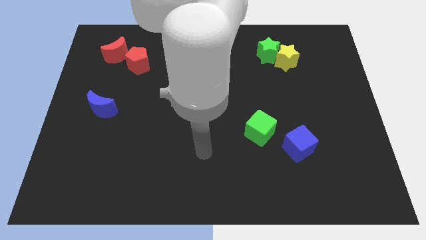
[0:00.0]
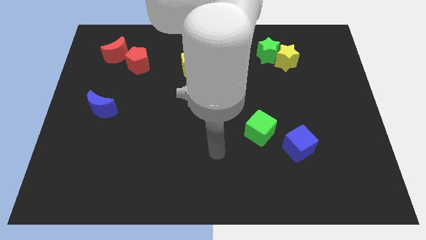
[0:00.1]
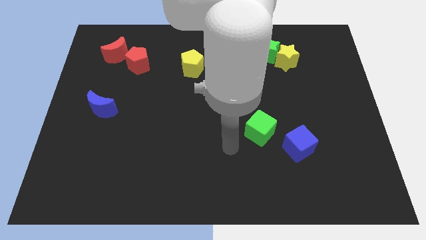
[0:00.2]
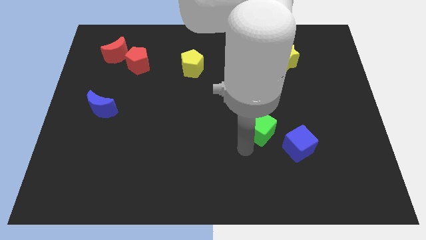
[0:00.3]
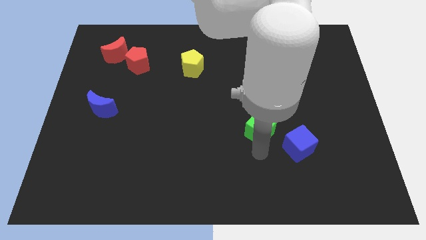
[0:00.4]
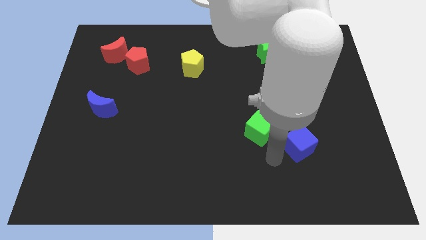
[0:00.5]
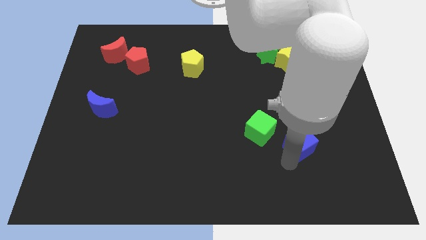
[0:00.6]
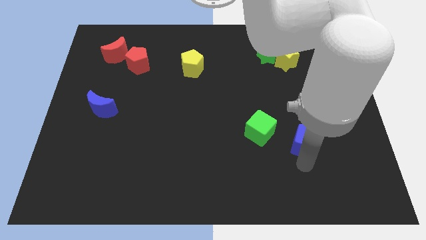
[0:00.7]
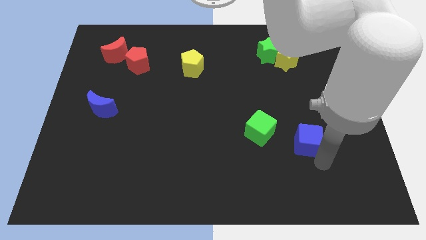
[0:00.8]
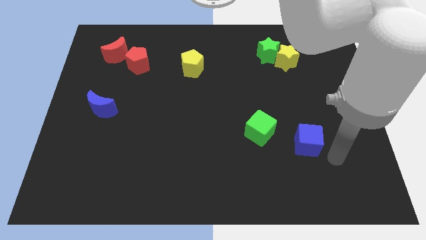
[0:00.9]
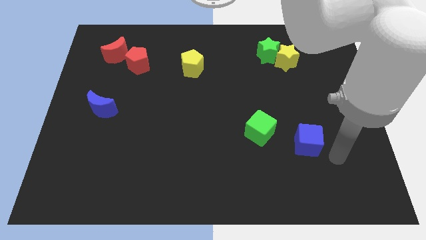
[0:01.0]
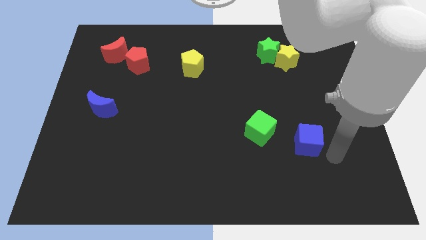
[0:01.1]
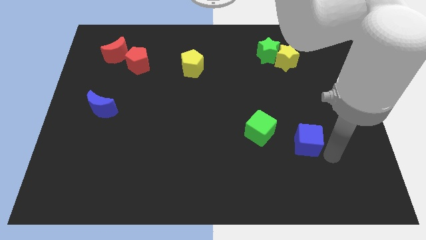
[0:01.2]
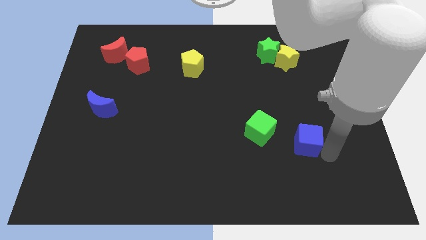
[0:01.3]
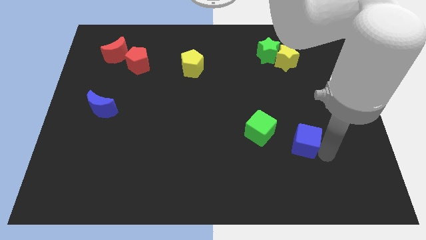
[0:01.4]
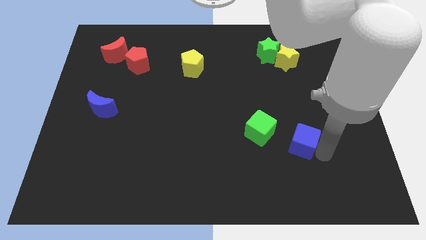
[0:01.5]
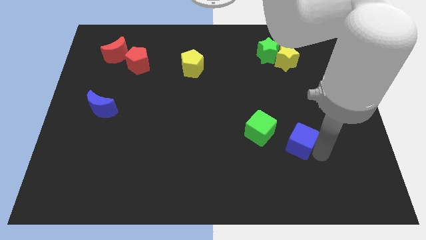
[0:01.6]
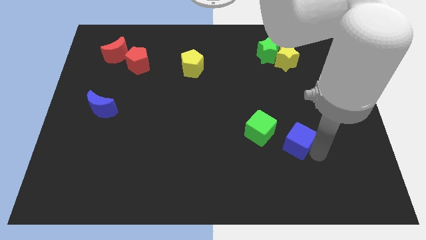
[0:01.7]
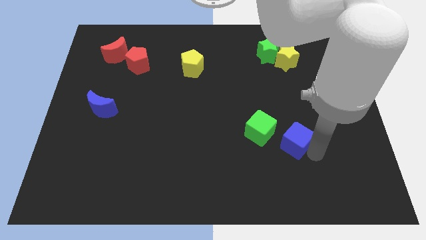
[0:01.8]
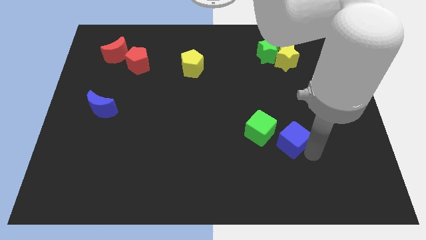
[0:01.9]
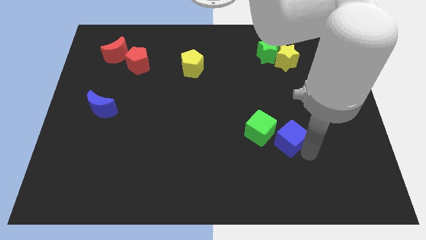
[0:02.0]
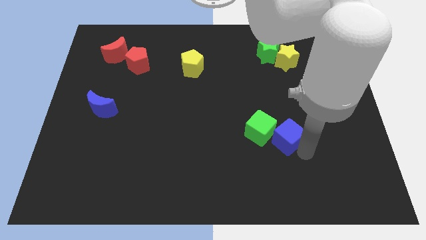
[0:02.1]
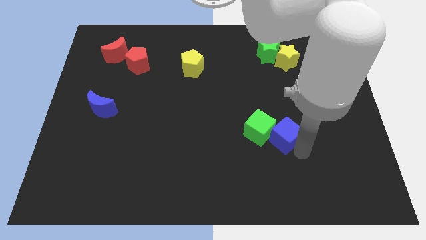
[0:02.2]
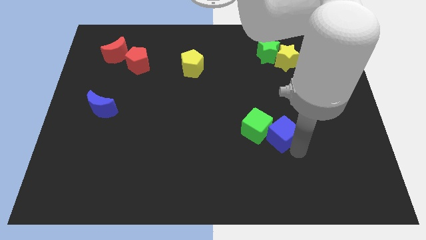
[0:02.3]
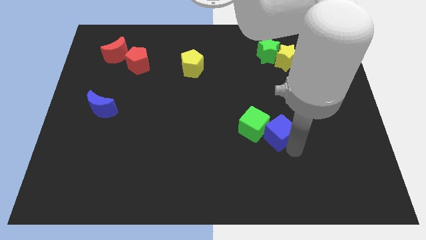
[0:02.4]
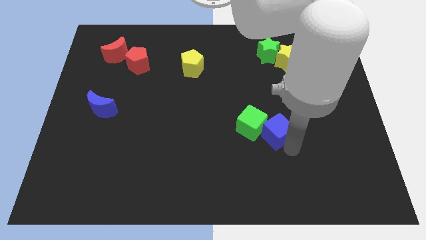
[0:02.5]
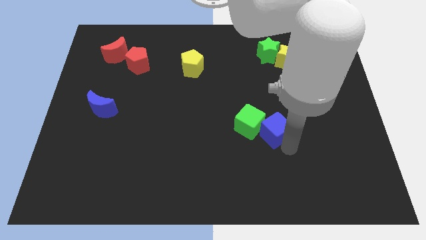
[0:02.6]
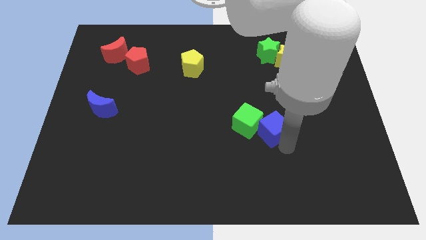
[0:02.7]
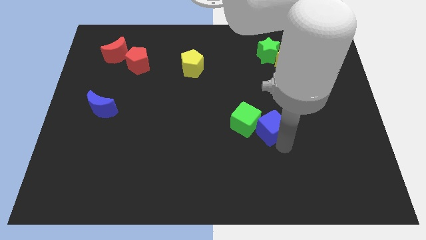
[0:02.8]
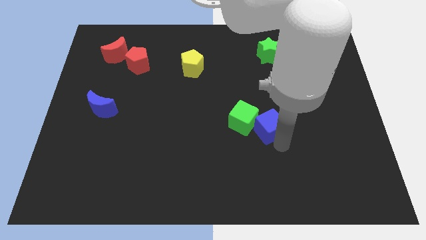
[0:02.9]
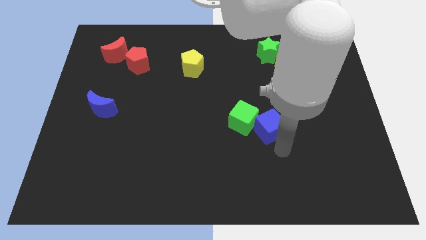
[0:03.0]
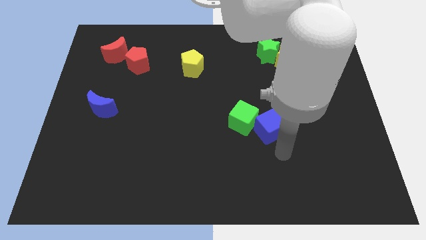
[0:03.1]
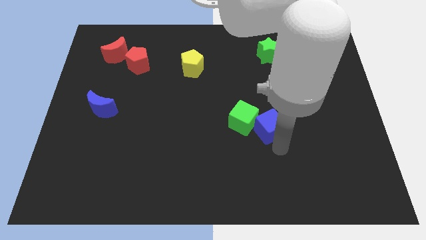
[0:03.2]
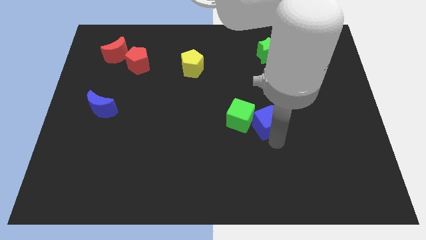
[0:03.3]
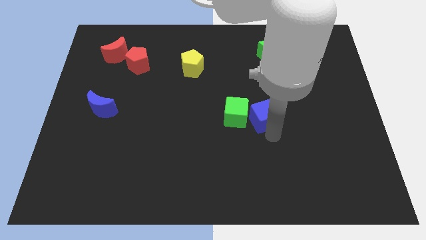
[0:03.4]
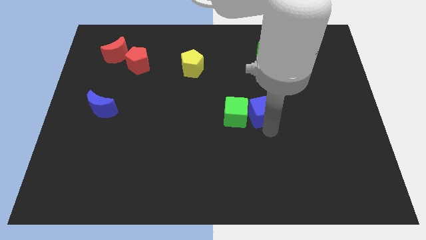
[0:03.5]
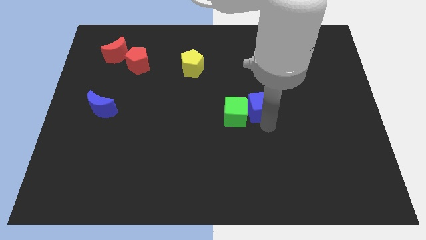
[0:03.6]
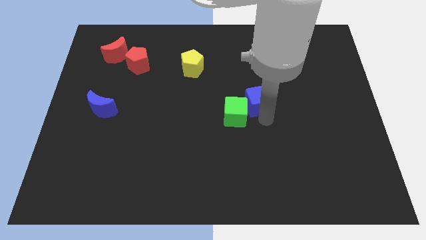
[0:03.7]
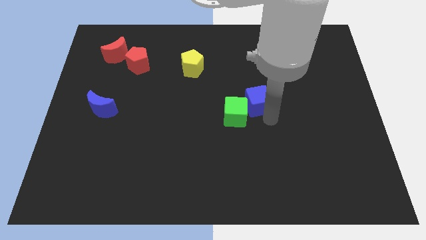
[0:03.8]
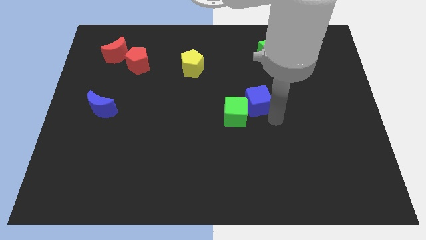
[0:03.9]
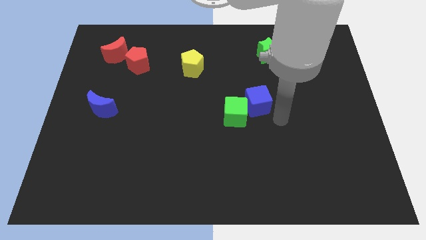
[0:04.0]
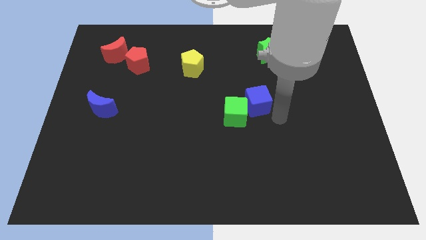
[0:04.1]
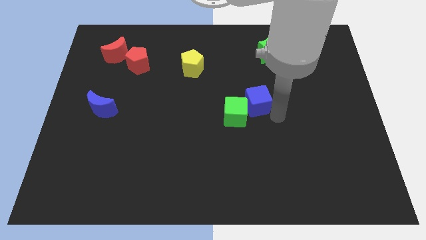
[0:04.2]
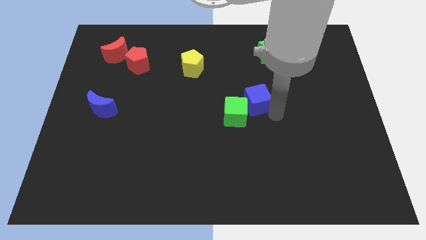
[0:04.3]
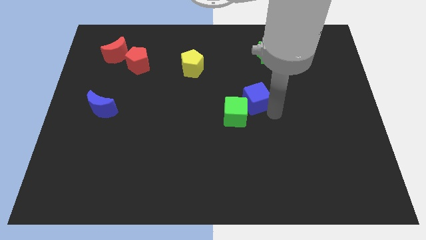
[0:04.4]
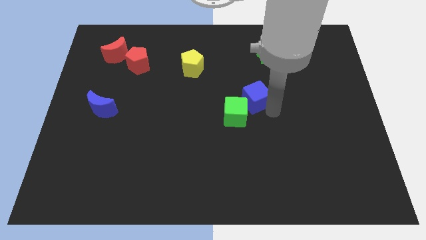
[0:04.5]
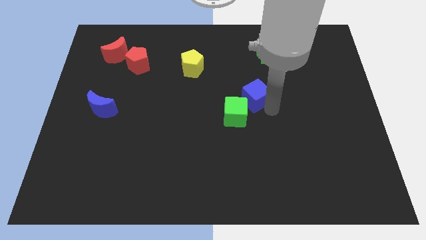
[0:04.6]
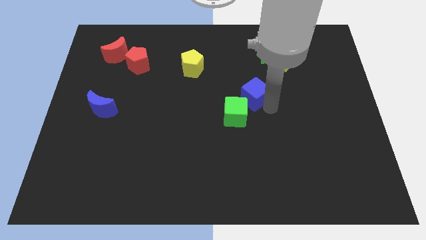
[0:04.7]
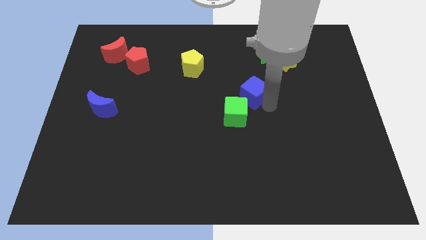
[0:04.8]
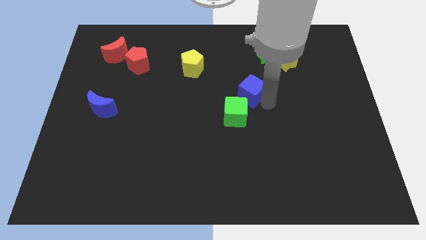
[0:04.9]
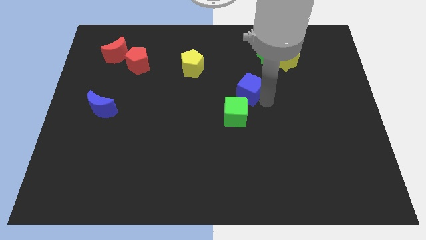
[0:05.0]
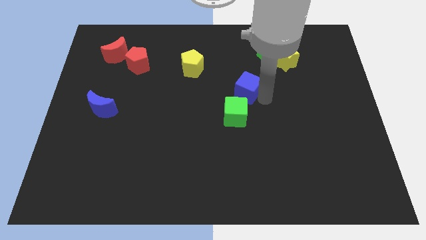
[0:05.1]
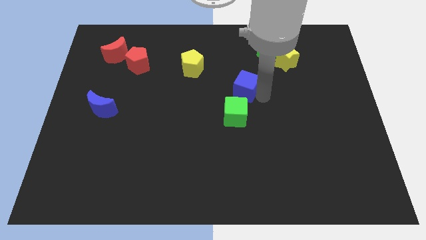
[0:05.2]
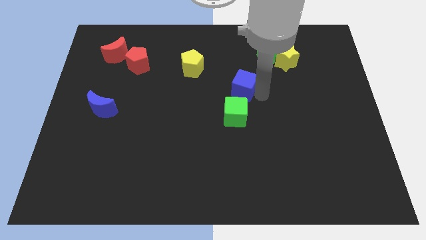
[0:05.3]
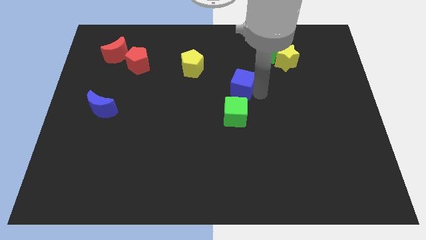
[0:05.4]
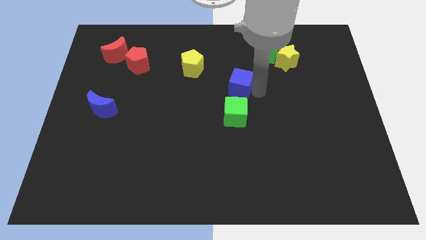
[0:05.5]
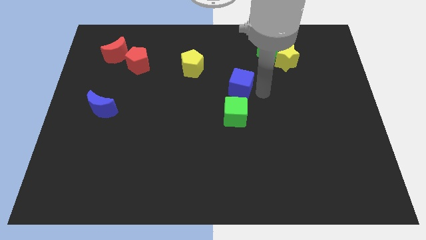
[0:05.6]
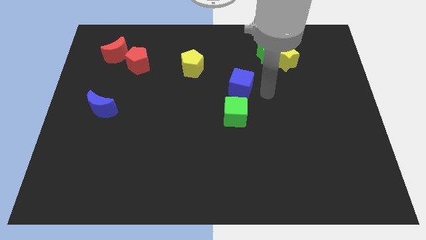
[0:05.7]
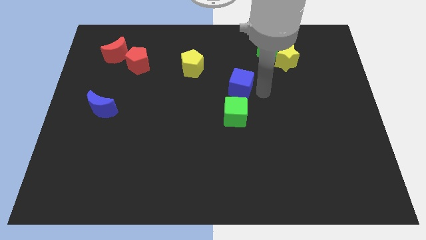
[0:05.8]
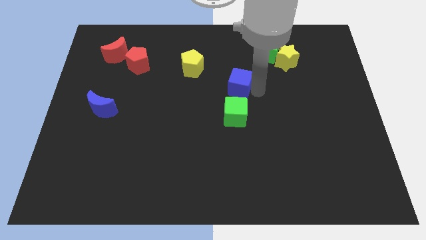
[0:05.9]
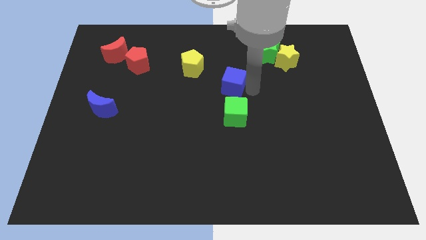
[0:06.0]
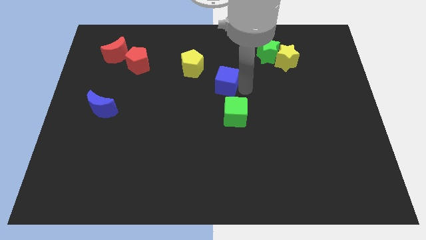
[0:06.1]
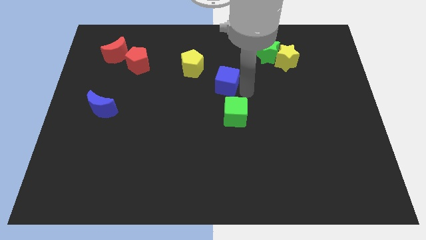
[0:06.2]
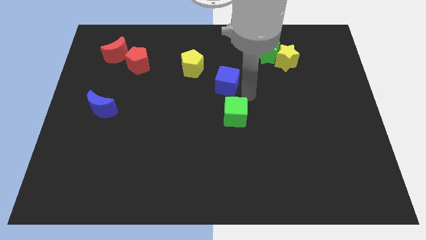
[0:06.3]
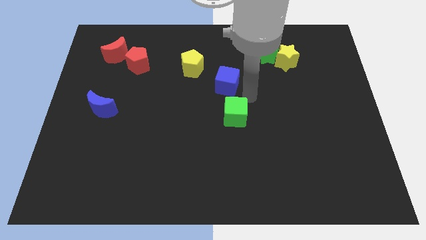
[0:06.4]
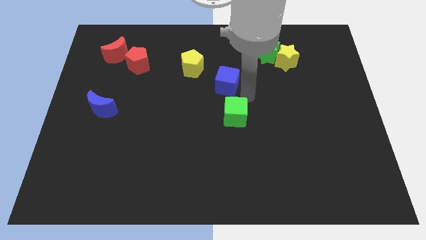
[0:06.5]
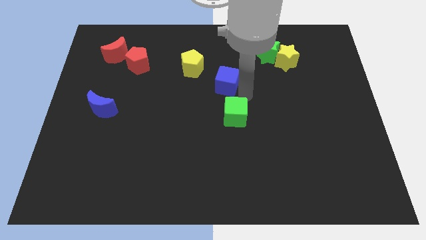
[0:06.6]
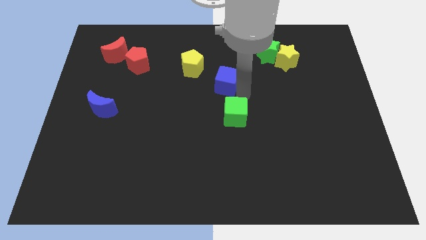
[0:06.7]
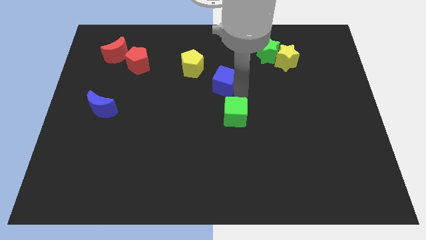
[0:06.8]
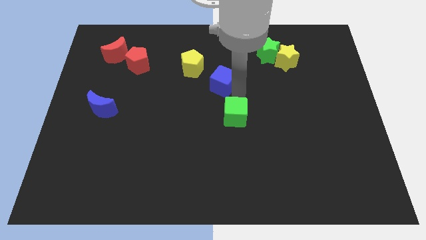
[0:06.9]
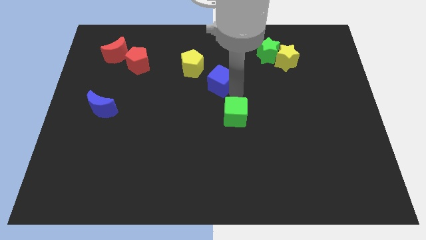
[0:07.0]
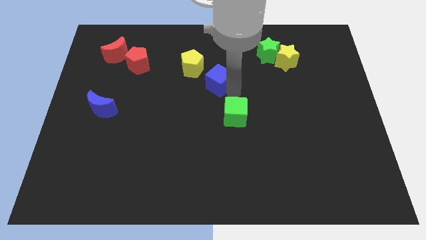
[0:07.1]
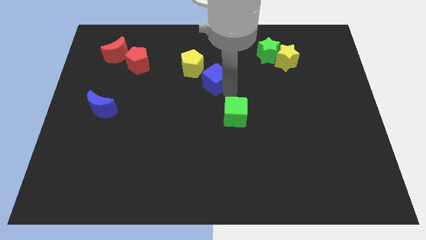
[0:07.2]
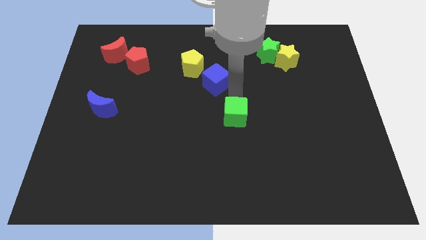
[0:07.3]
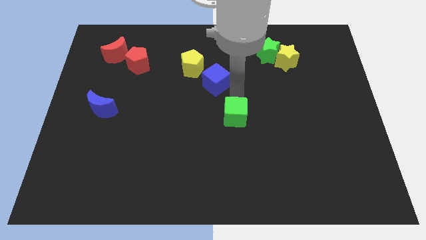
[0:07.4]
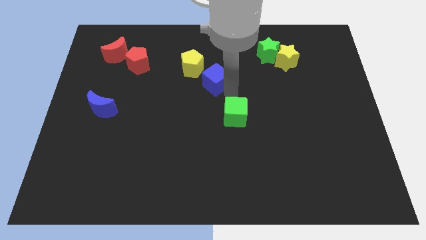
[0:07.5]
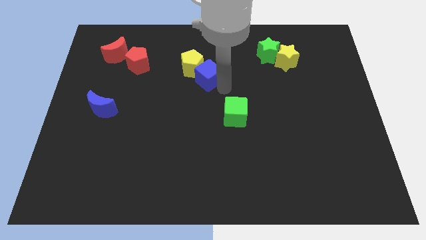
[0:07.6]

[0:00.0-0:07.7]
push the blue cube towards the yellow pentagon

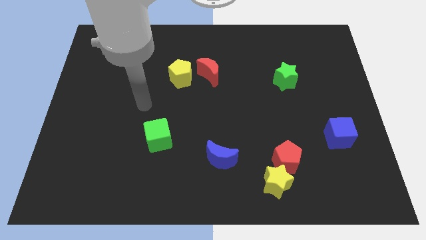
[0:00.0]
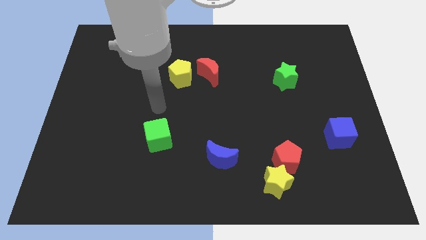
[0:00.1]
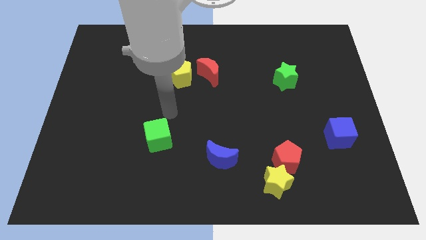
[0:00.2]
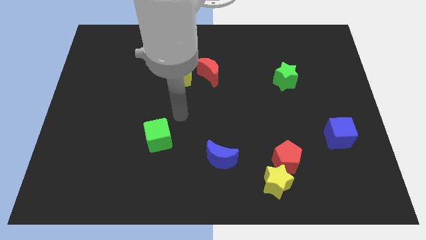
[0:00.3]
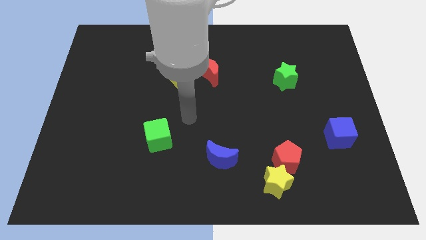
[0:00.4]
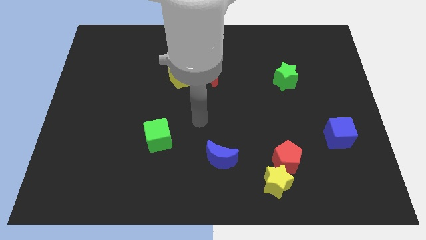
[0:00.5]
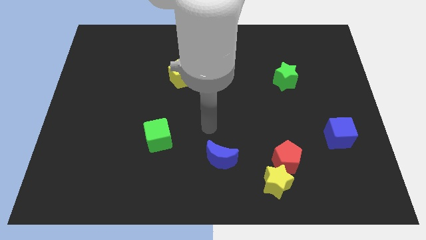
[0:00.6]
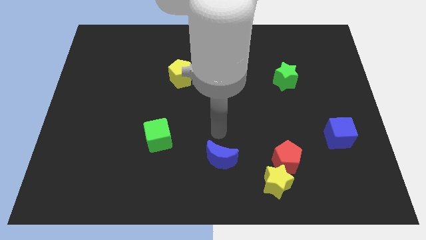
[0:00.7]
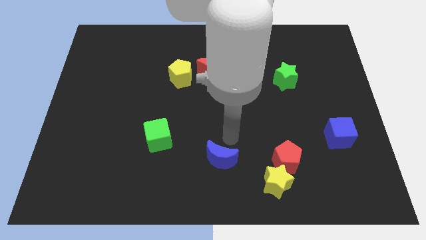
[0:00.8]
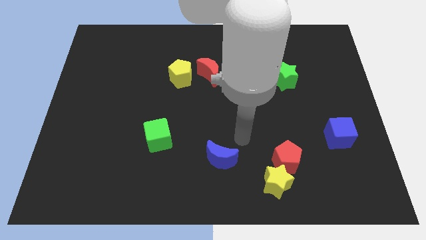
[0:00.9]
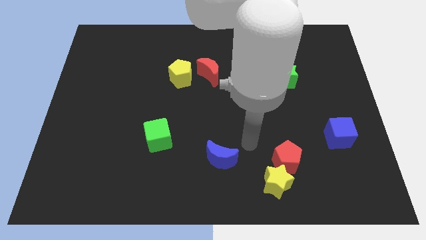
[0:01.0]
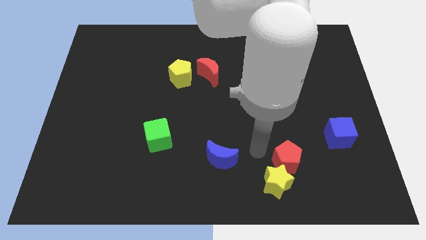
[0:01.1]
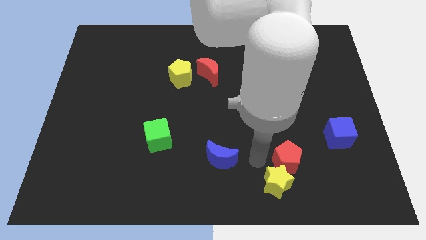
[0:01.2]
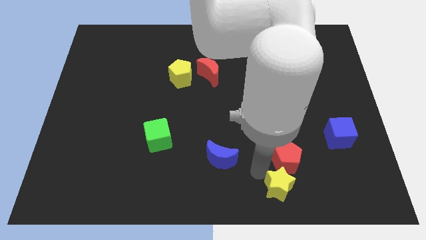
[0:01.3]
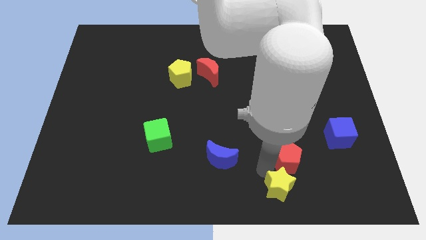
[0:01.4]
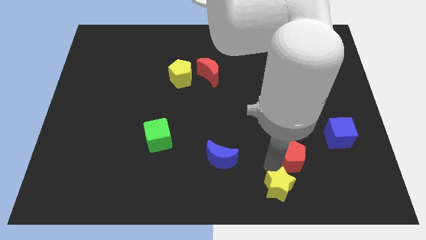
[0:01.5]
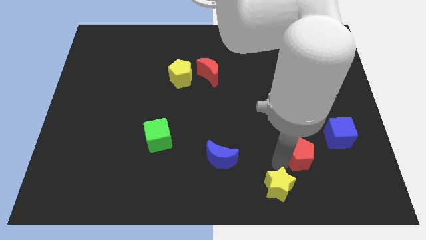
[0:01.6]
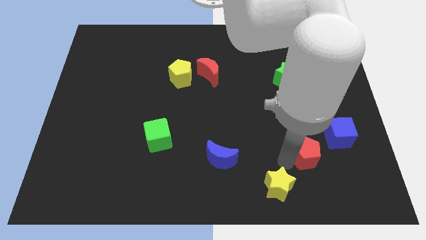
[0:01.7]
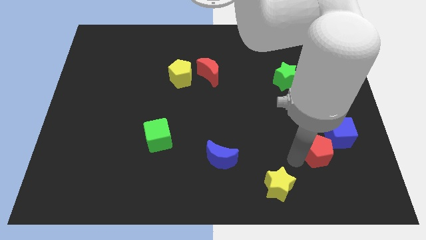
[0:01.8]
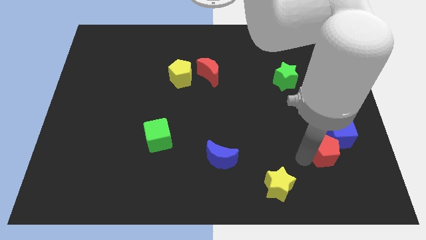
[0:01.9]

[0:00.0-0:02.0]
push the red pentagon towards the blue cube
